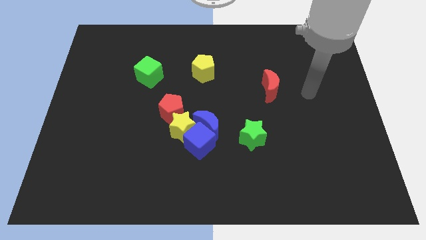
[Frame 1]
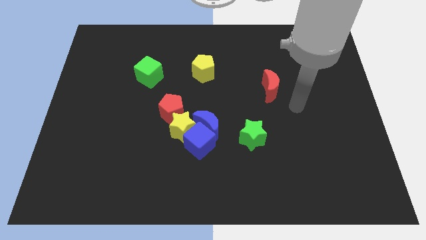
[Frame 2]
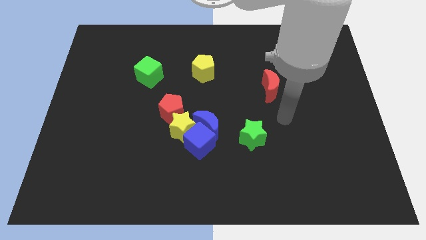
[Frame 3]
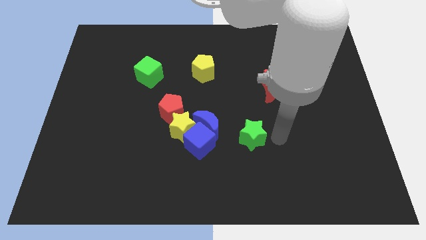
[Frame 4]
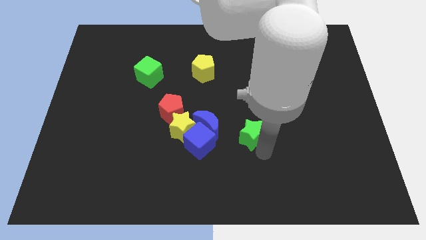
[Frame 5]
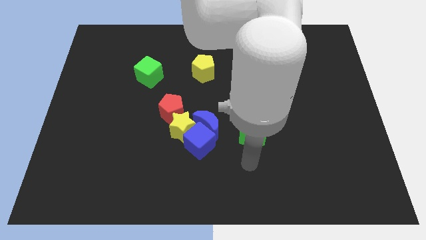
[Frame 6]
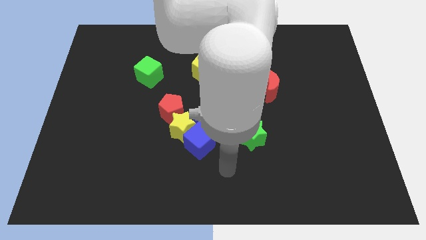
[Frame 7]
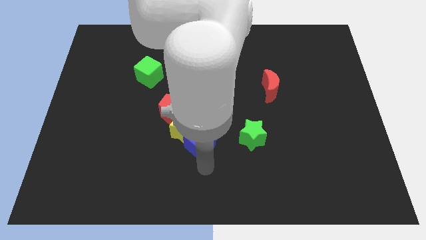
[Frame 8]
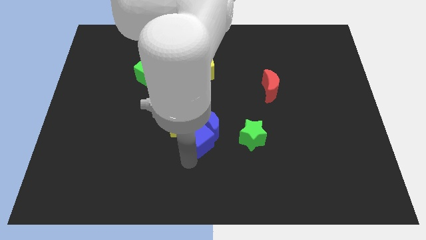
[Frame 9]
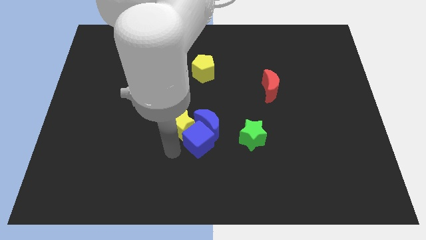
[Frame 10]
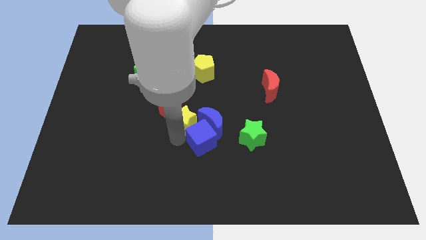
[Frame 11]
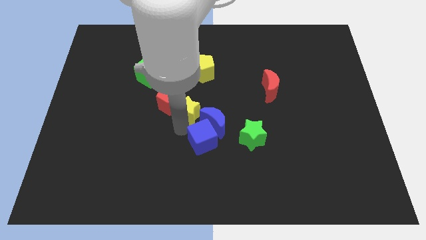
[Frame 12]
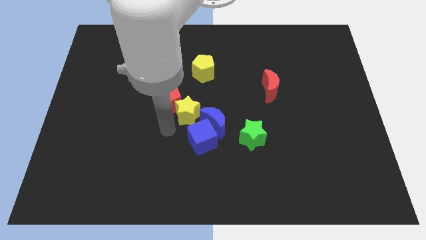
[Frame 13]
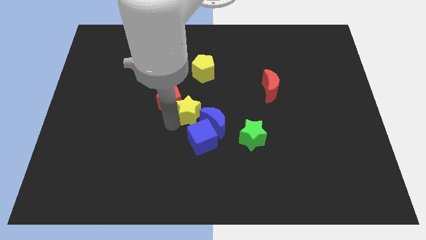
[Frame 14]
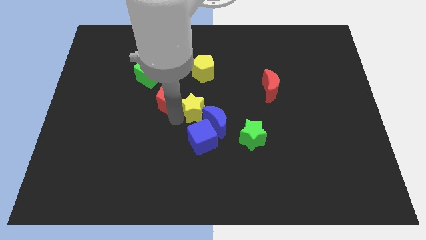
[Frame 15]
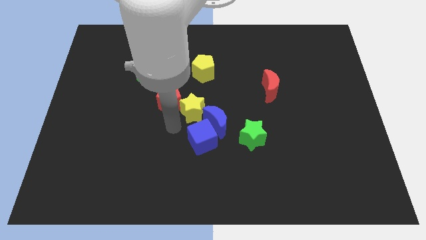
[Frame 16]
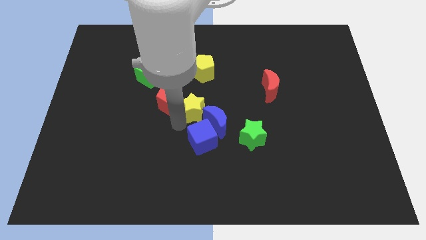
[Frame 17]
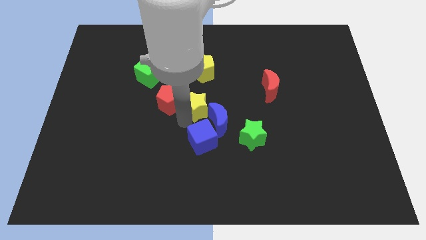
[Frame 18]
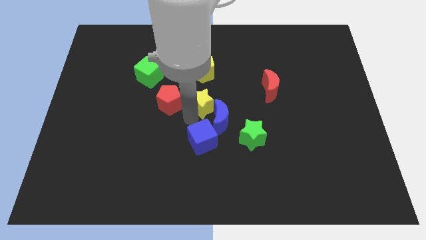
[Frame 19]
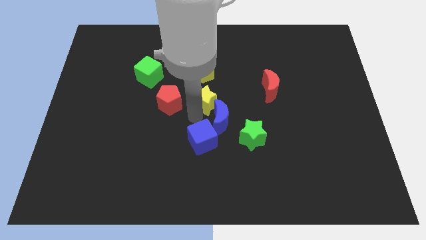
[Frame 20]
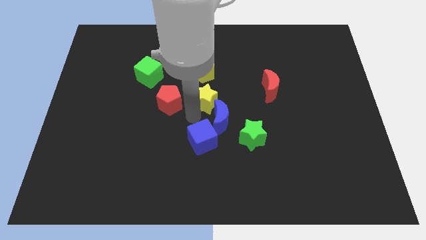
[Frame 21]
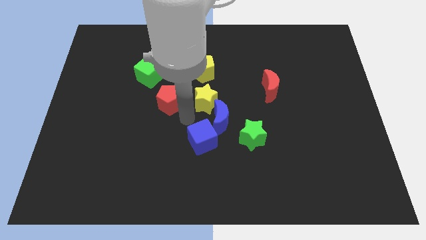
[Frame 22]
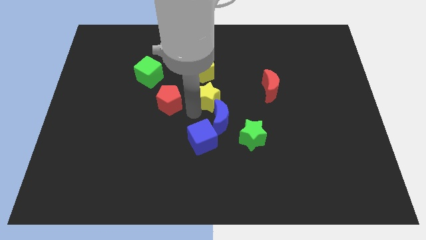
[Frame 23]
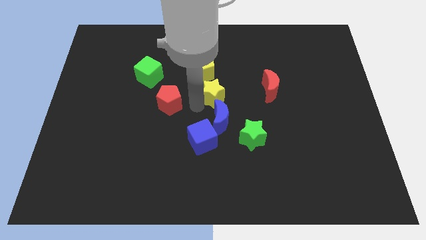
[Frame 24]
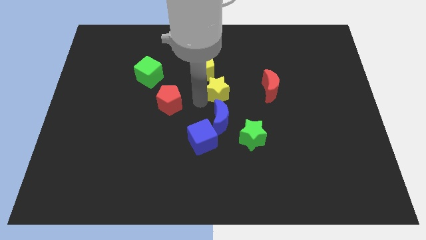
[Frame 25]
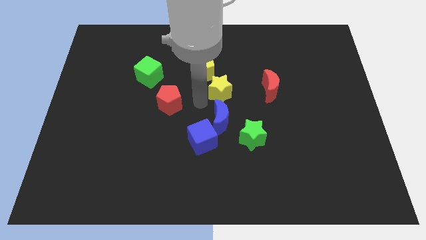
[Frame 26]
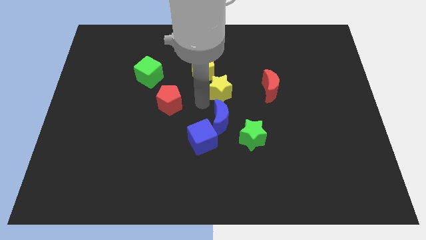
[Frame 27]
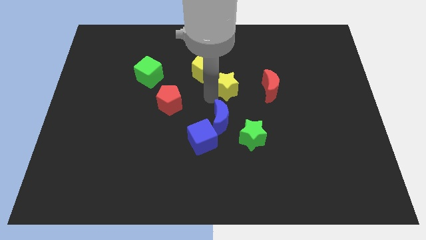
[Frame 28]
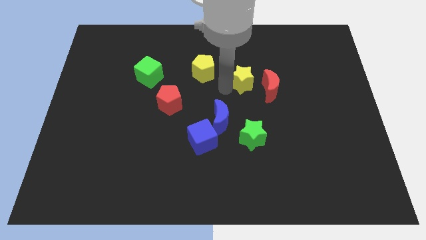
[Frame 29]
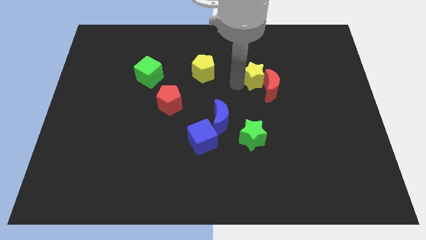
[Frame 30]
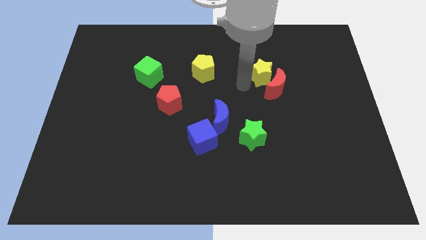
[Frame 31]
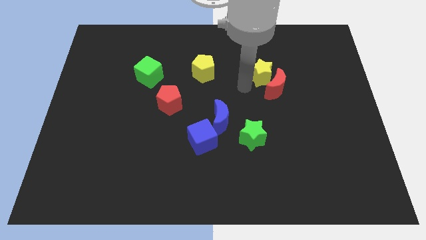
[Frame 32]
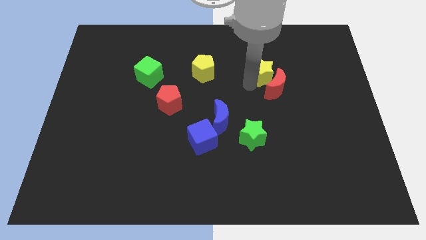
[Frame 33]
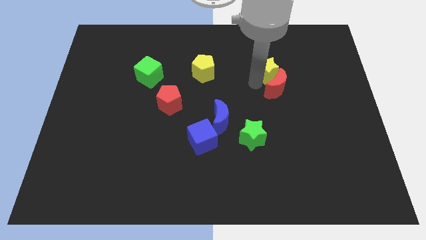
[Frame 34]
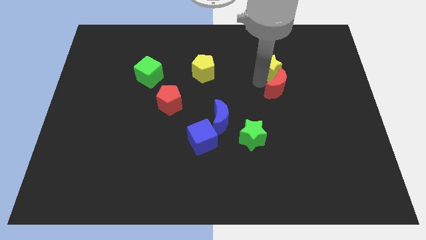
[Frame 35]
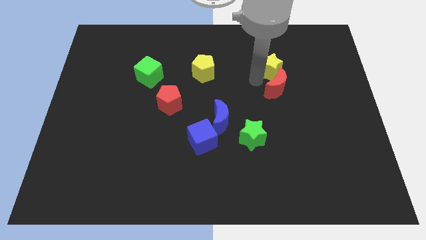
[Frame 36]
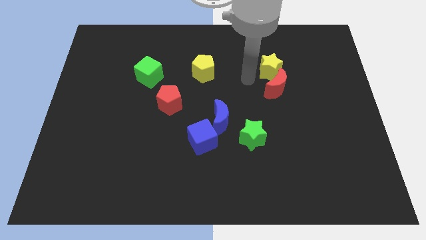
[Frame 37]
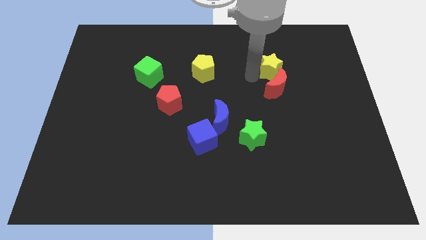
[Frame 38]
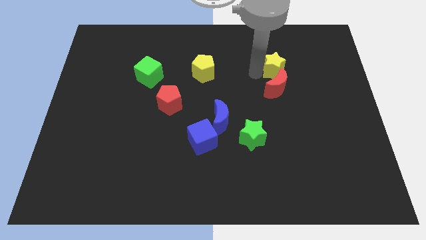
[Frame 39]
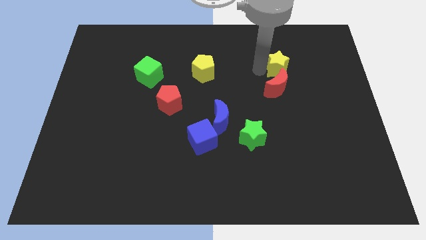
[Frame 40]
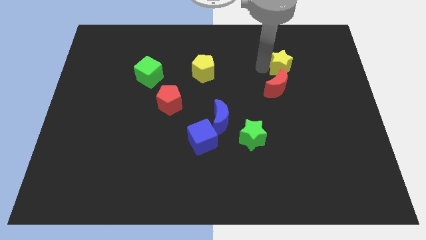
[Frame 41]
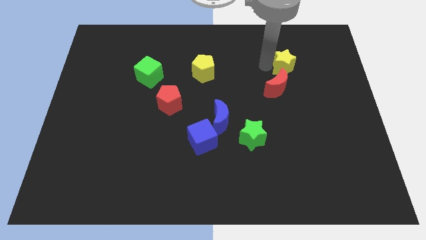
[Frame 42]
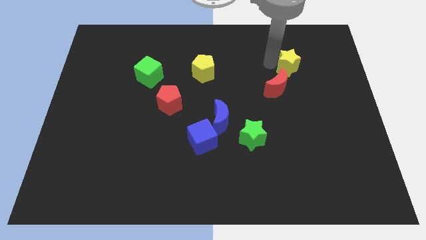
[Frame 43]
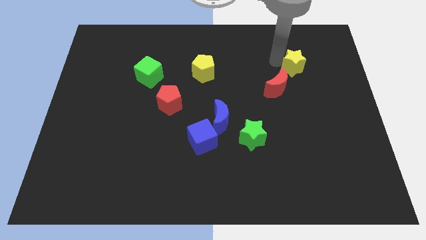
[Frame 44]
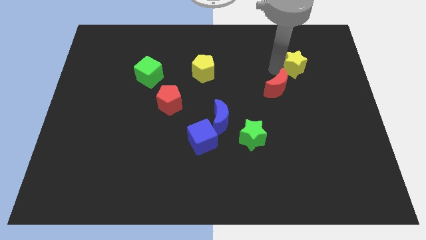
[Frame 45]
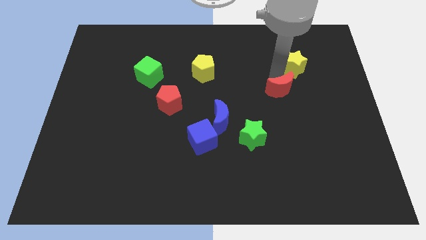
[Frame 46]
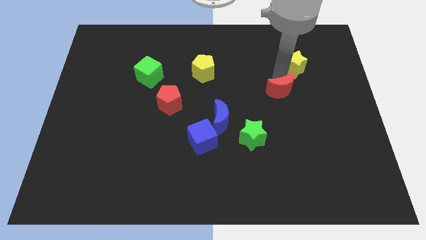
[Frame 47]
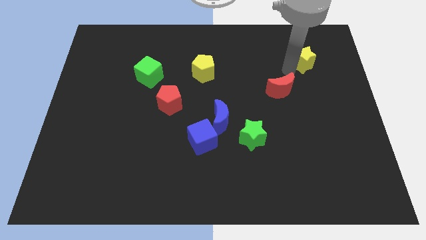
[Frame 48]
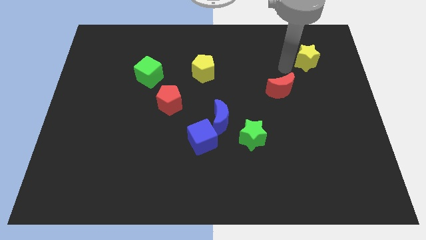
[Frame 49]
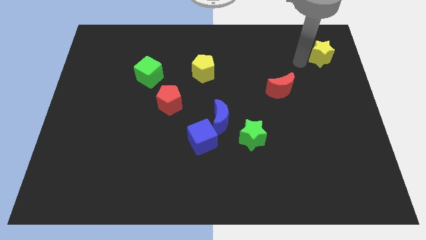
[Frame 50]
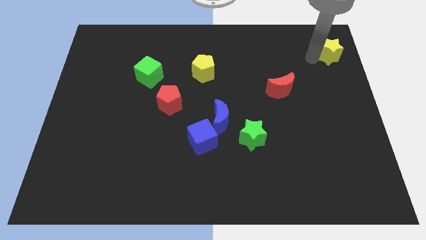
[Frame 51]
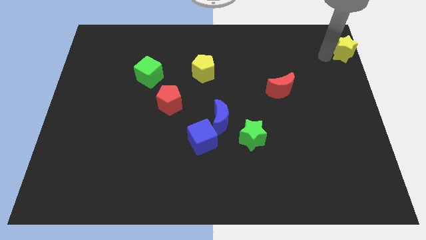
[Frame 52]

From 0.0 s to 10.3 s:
push the yellow star to the top right

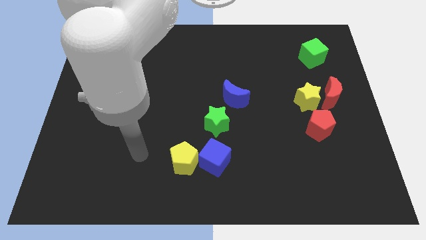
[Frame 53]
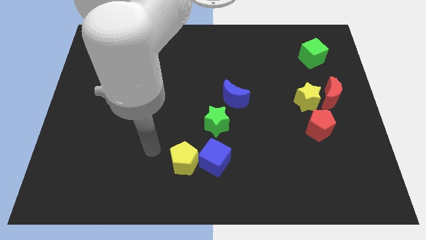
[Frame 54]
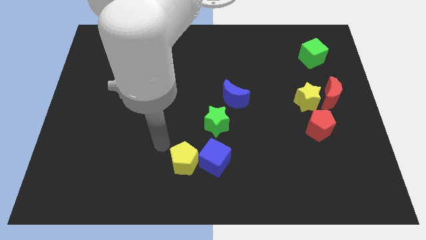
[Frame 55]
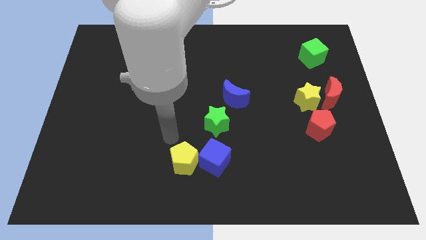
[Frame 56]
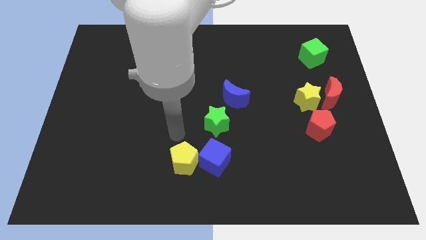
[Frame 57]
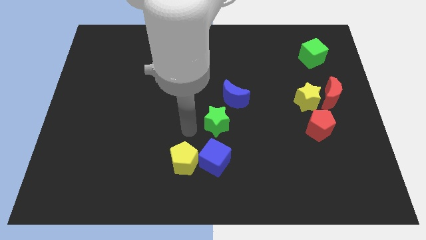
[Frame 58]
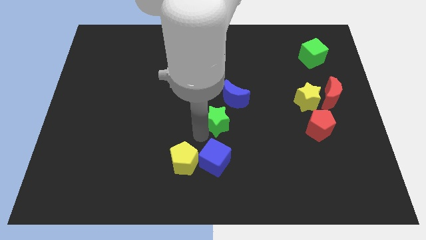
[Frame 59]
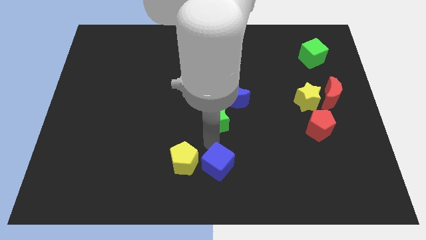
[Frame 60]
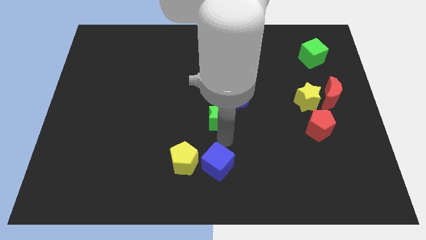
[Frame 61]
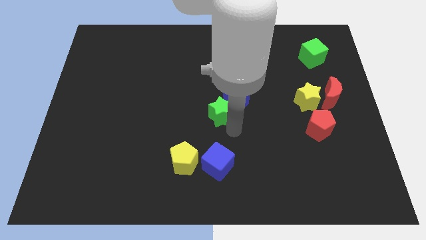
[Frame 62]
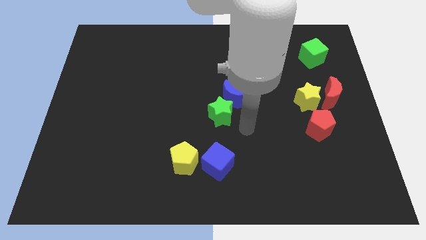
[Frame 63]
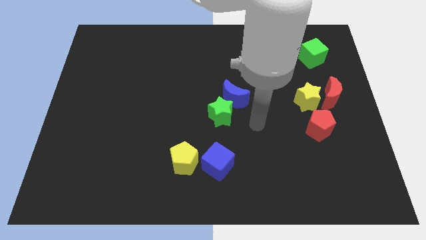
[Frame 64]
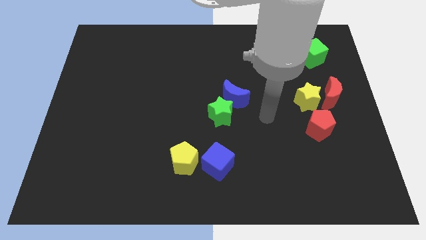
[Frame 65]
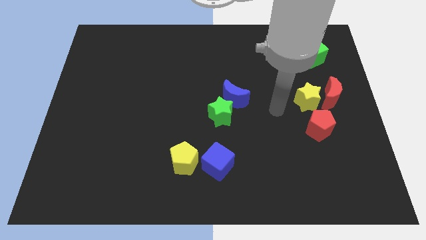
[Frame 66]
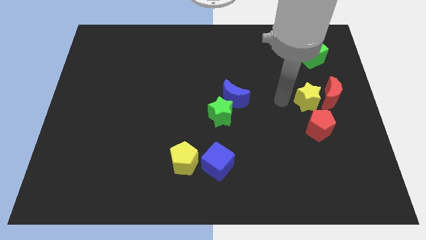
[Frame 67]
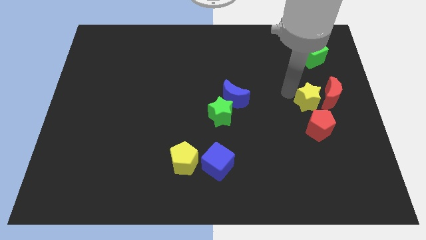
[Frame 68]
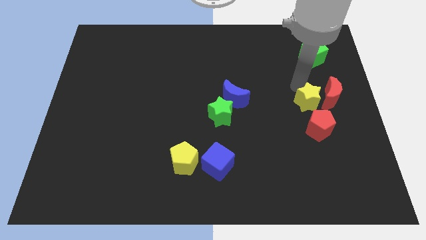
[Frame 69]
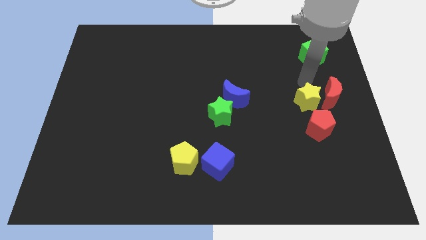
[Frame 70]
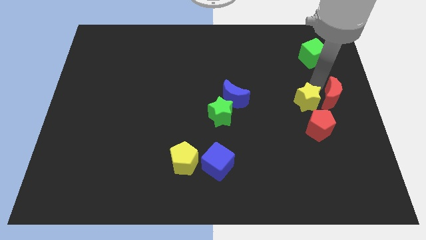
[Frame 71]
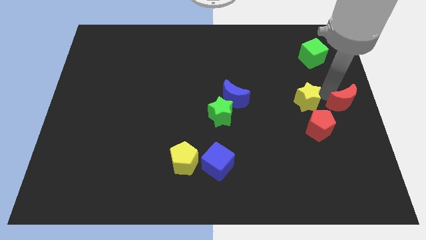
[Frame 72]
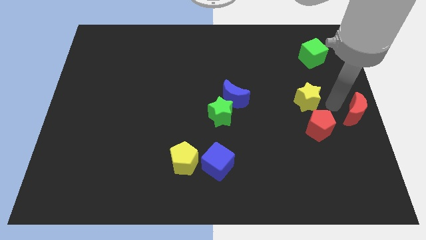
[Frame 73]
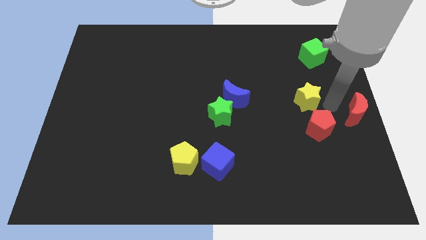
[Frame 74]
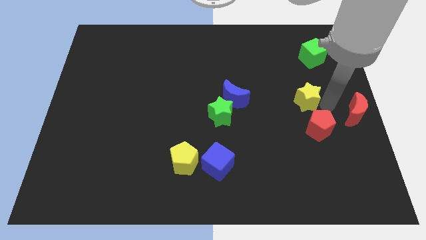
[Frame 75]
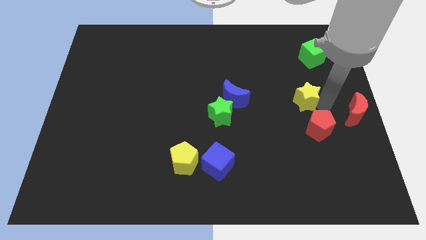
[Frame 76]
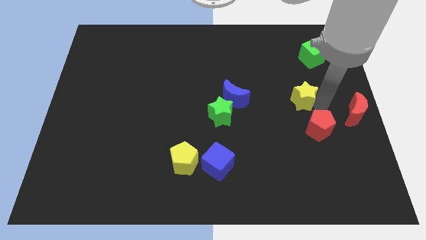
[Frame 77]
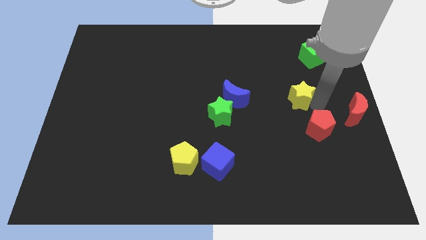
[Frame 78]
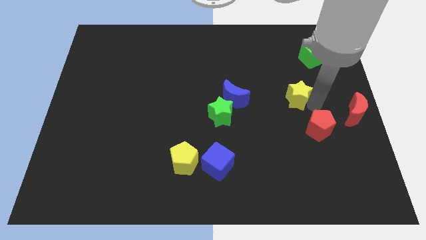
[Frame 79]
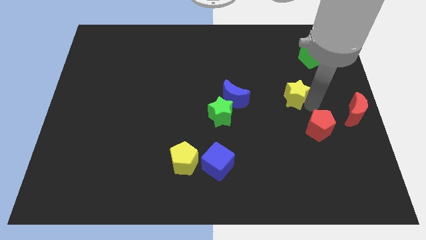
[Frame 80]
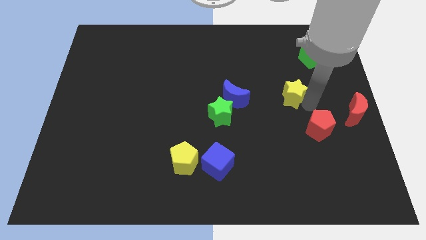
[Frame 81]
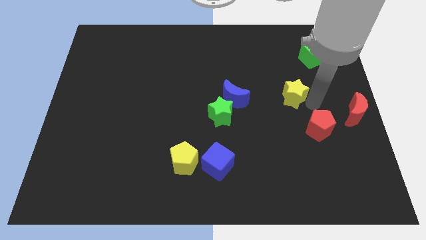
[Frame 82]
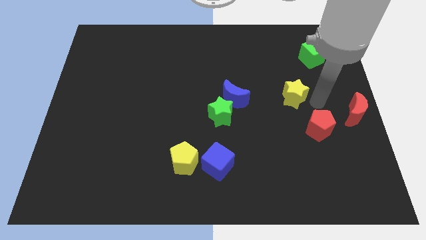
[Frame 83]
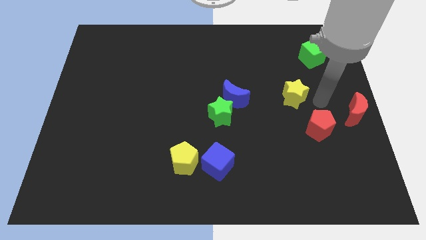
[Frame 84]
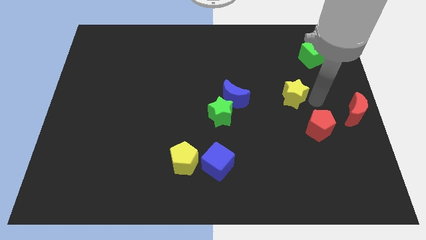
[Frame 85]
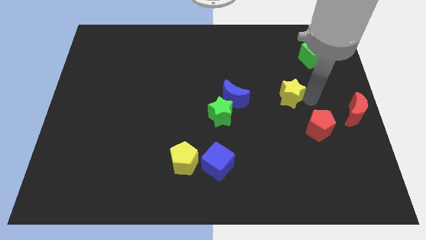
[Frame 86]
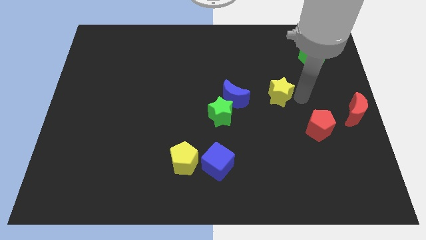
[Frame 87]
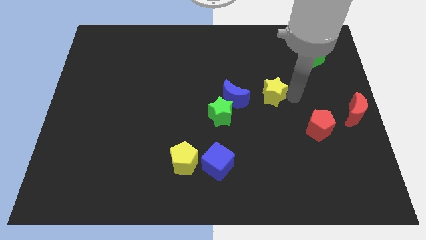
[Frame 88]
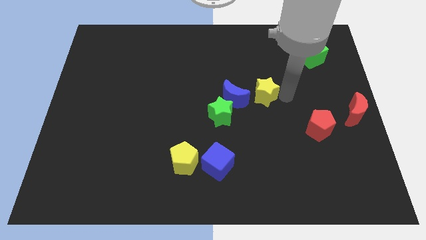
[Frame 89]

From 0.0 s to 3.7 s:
put the yellow star to the middle of the board
